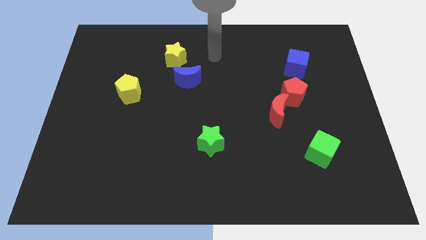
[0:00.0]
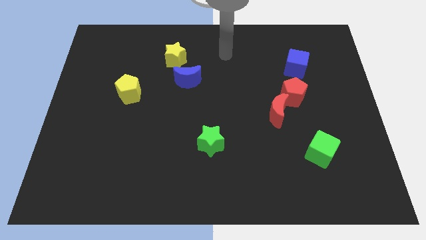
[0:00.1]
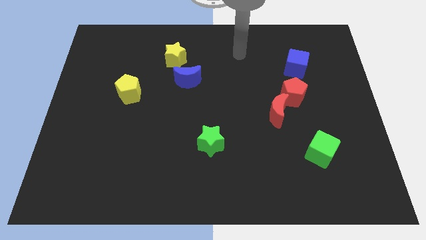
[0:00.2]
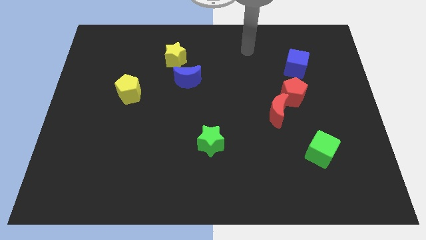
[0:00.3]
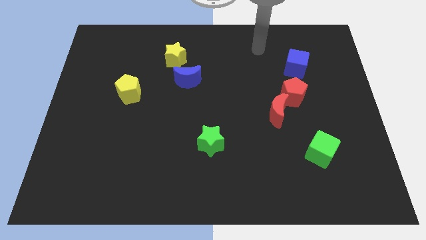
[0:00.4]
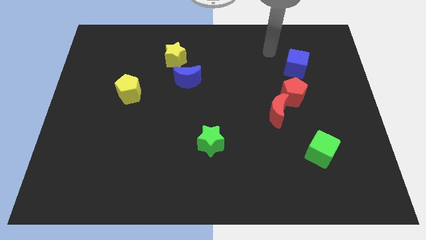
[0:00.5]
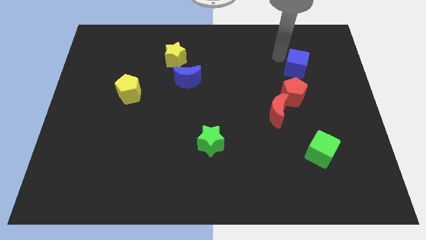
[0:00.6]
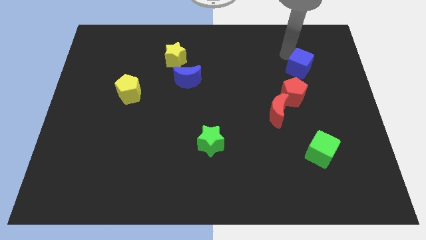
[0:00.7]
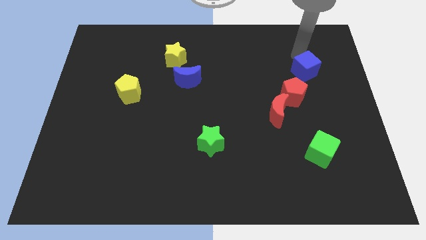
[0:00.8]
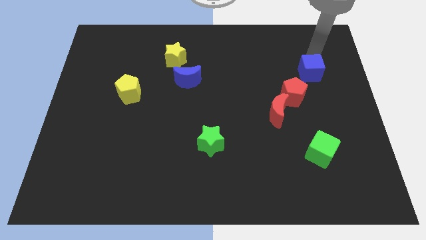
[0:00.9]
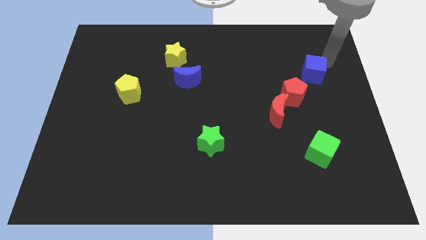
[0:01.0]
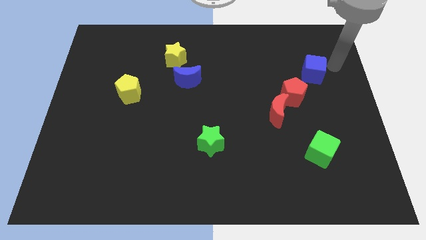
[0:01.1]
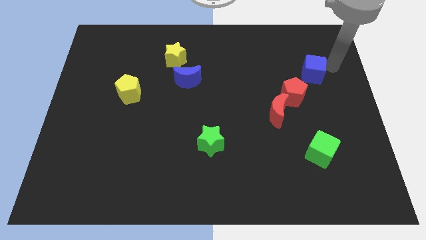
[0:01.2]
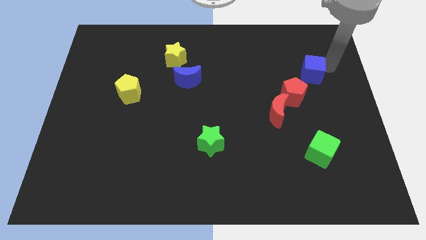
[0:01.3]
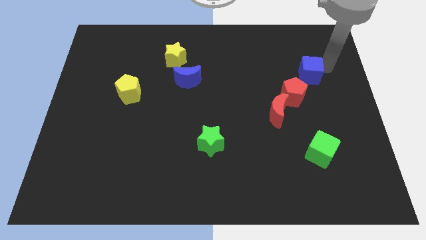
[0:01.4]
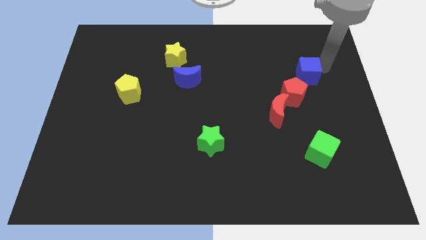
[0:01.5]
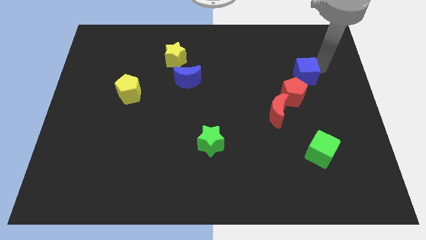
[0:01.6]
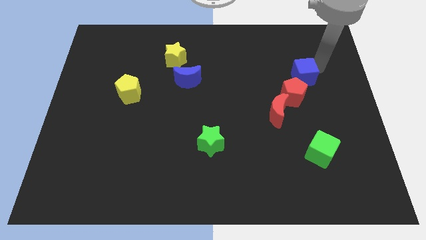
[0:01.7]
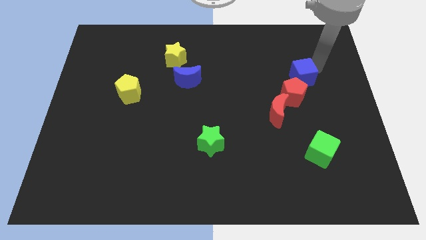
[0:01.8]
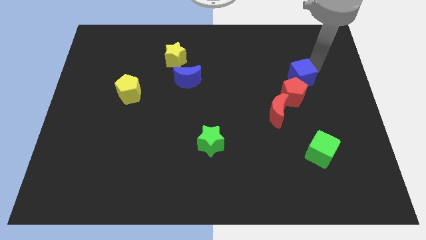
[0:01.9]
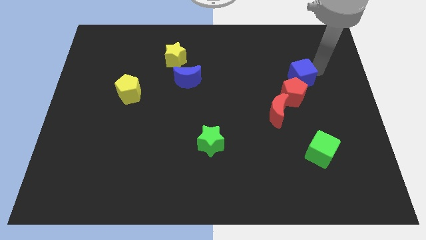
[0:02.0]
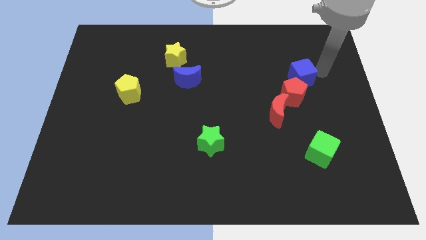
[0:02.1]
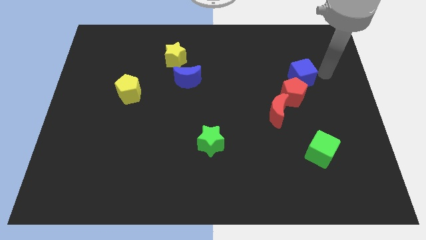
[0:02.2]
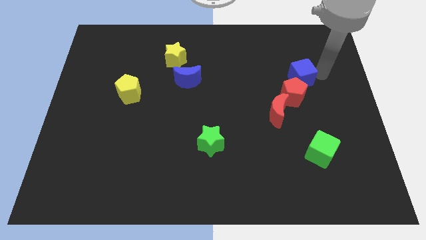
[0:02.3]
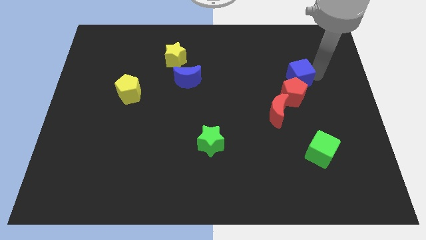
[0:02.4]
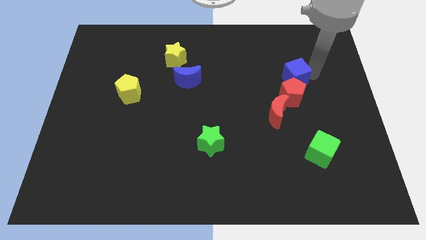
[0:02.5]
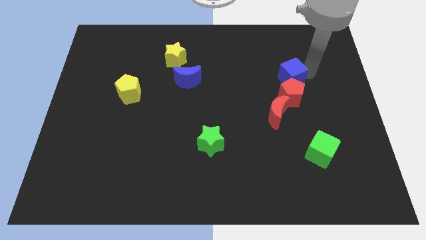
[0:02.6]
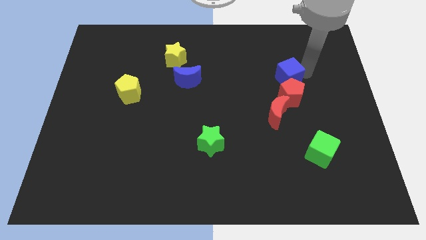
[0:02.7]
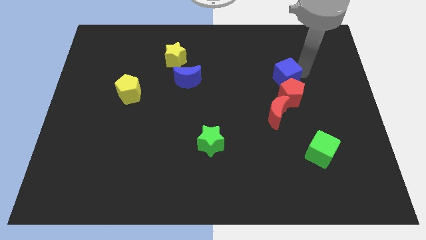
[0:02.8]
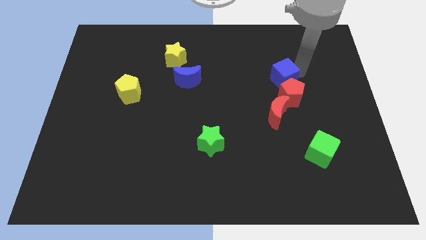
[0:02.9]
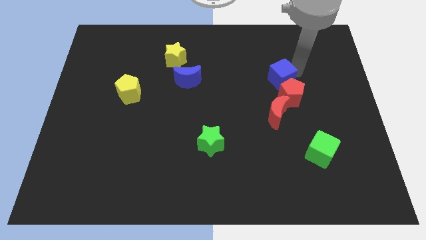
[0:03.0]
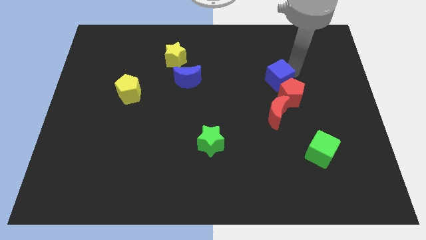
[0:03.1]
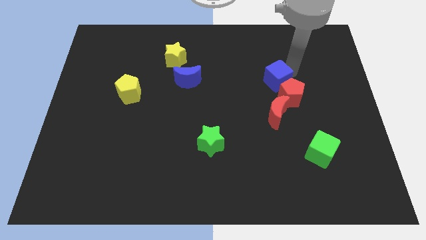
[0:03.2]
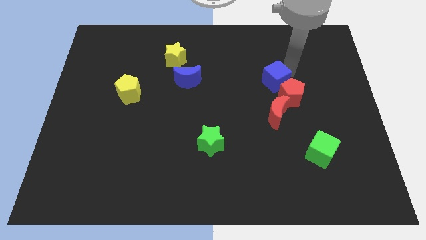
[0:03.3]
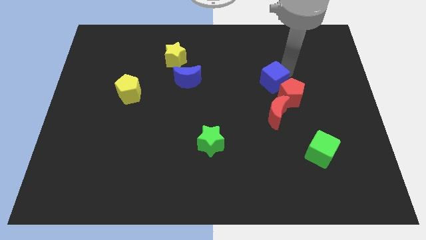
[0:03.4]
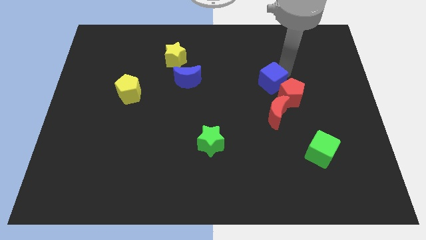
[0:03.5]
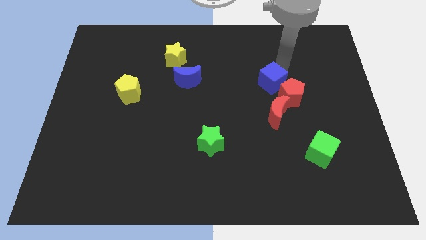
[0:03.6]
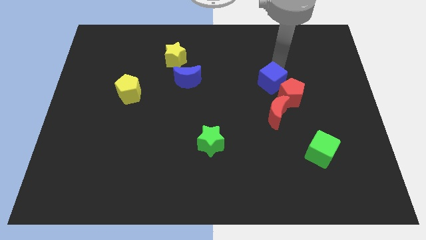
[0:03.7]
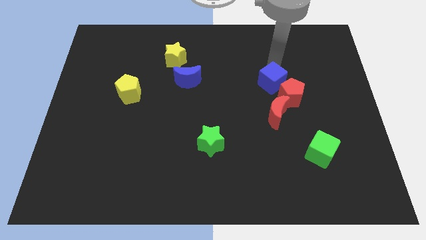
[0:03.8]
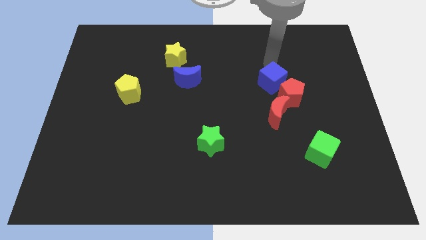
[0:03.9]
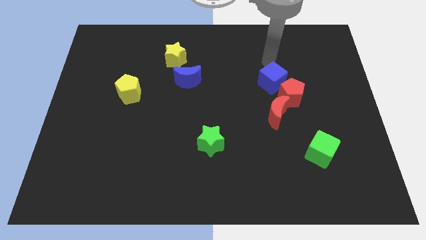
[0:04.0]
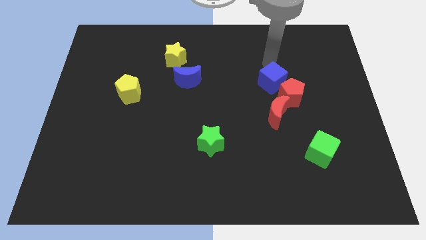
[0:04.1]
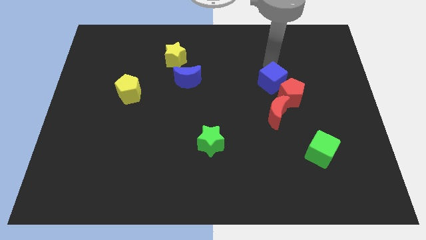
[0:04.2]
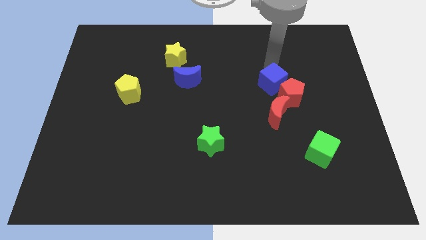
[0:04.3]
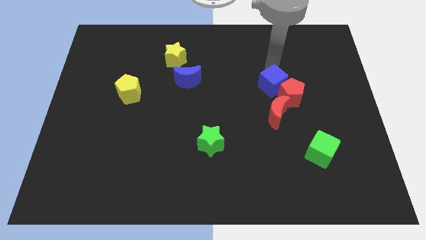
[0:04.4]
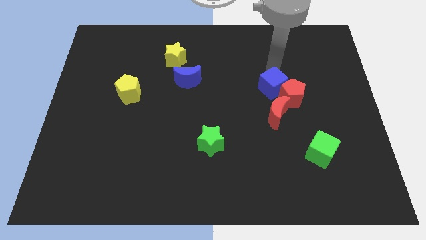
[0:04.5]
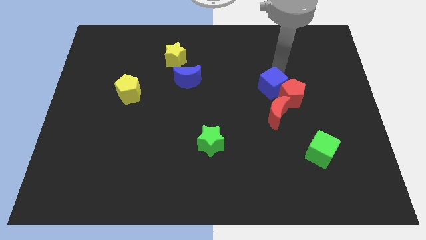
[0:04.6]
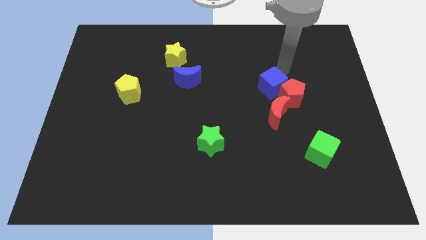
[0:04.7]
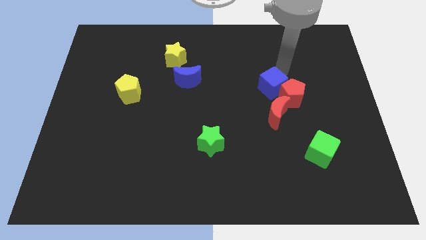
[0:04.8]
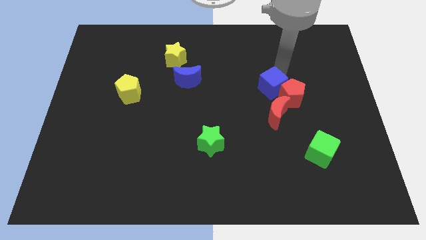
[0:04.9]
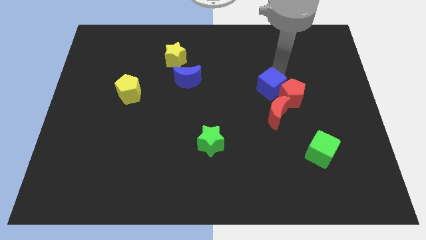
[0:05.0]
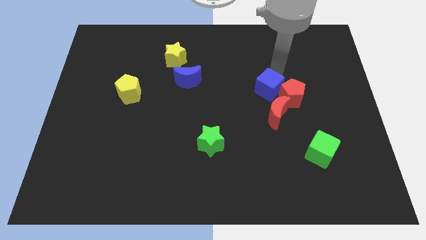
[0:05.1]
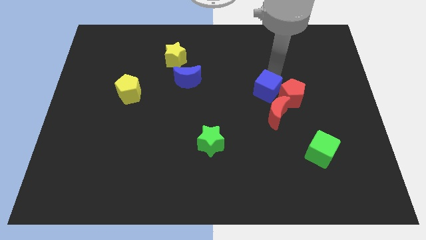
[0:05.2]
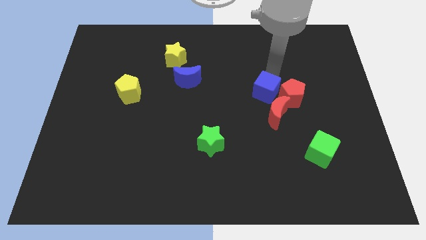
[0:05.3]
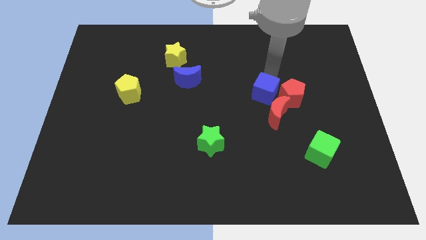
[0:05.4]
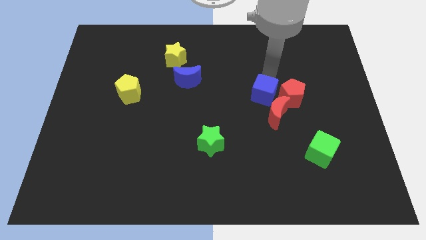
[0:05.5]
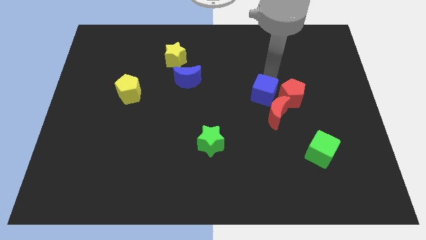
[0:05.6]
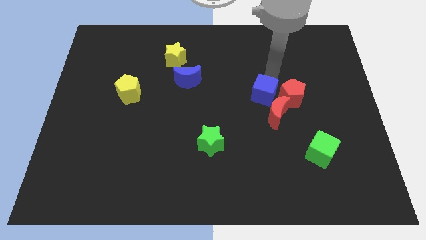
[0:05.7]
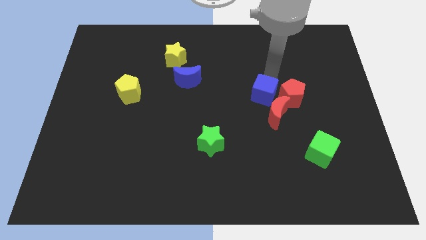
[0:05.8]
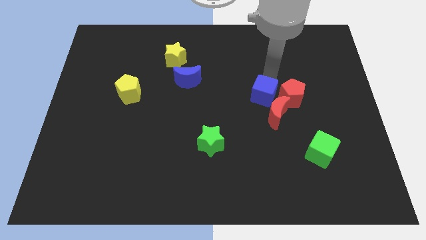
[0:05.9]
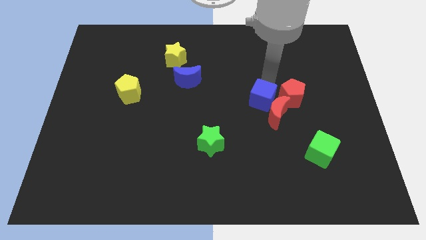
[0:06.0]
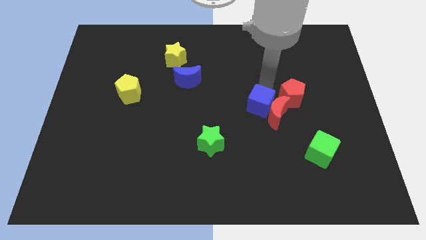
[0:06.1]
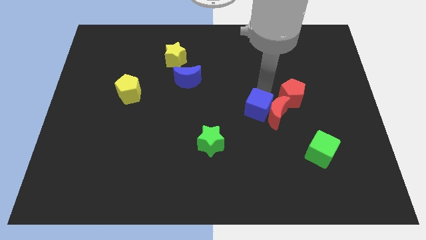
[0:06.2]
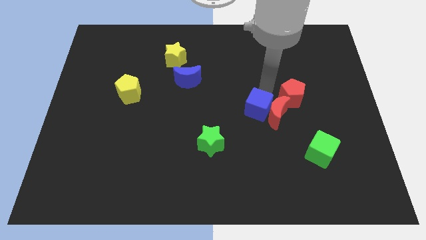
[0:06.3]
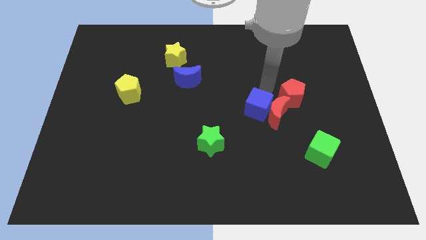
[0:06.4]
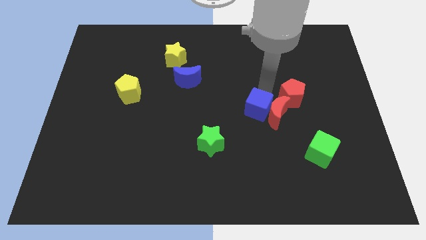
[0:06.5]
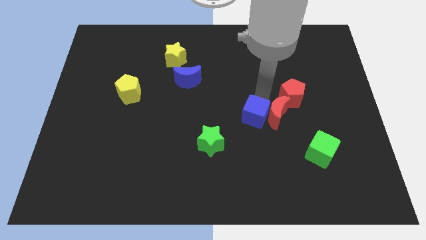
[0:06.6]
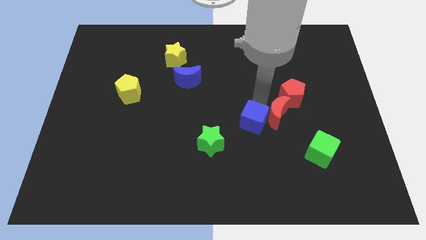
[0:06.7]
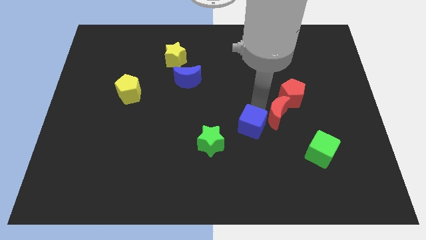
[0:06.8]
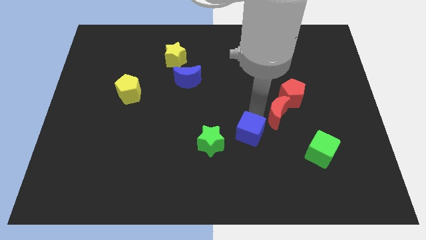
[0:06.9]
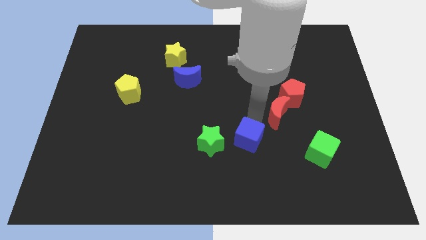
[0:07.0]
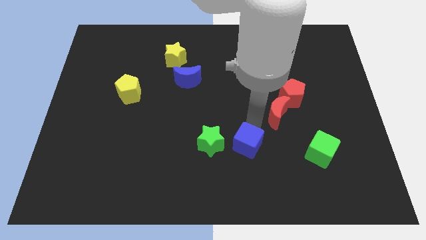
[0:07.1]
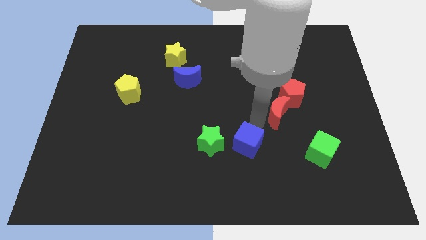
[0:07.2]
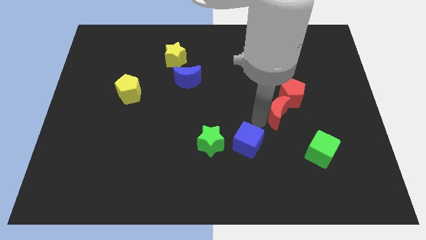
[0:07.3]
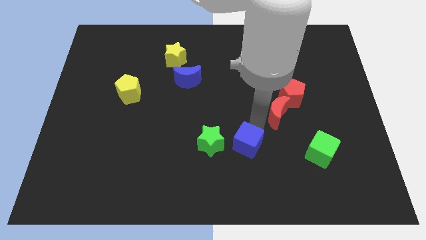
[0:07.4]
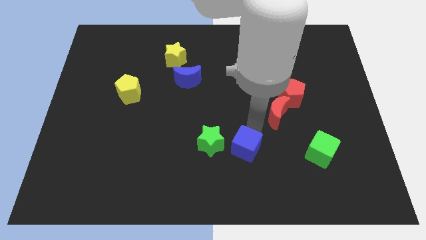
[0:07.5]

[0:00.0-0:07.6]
slide the blue cube to the bottom right side of the green star

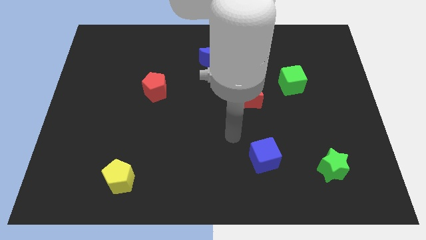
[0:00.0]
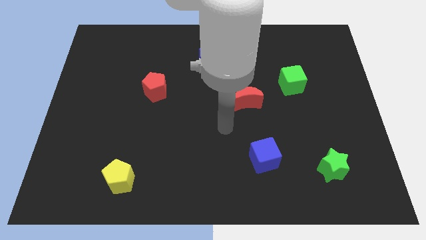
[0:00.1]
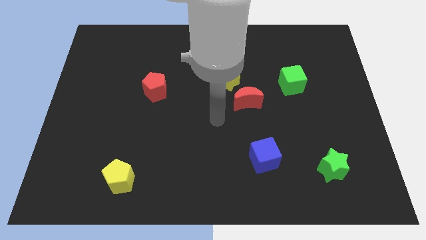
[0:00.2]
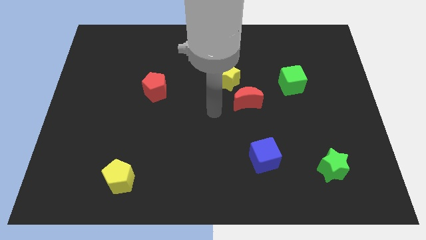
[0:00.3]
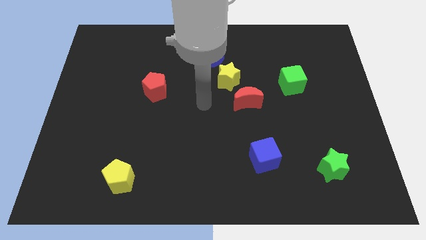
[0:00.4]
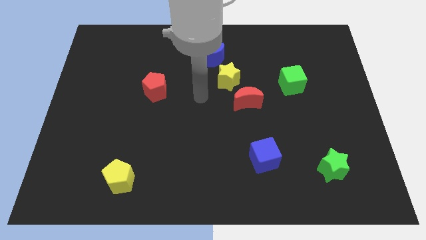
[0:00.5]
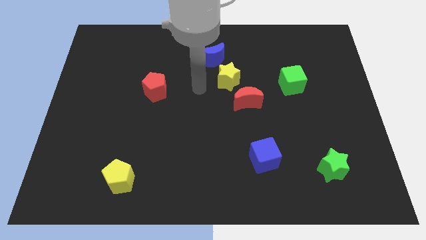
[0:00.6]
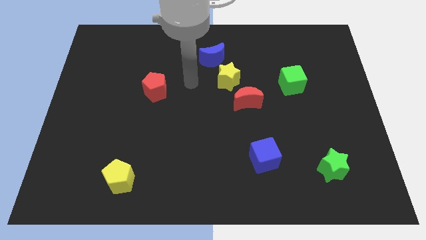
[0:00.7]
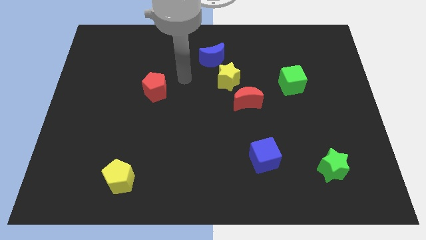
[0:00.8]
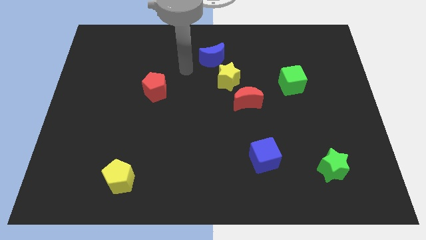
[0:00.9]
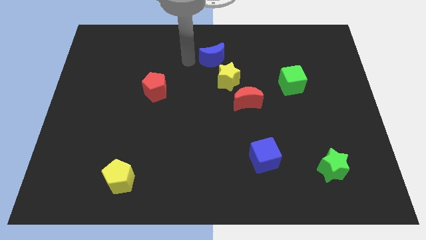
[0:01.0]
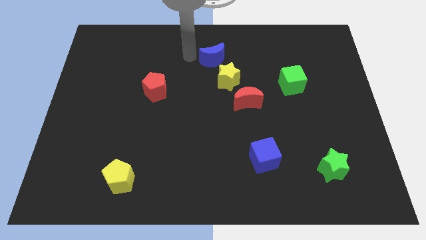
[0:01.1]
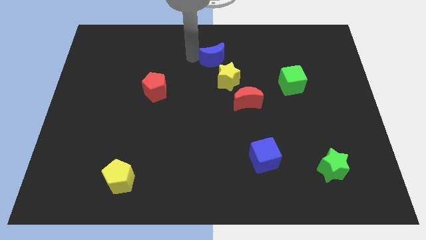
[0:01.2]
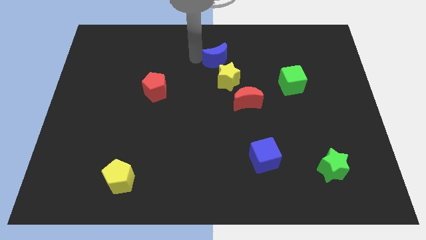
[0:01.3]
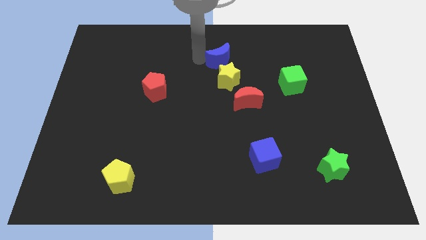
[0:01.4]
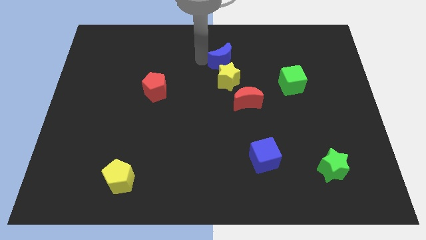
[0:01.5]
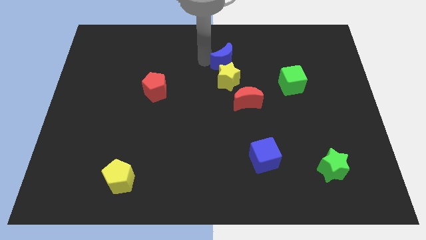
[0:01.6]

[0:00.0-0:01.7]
move the blue moon to the top right of the yellow star
